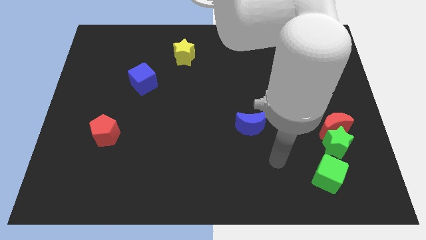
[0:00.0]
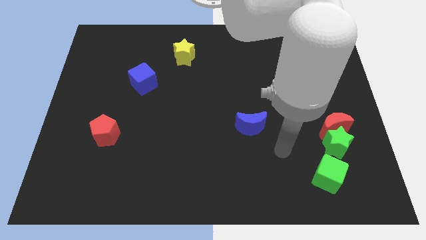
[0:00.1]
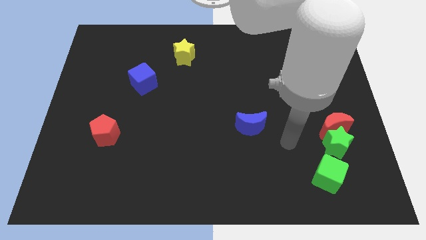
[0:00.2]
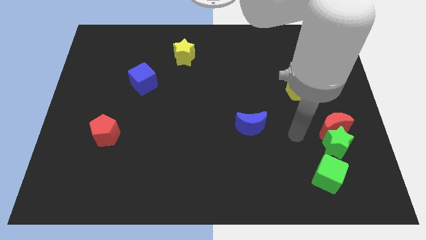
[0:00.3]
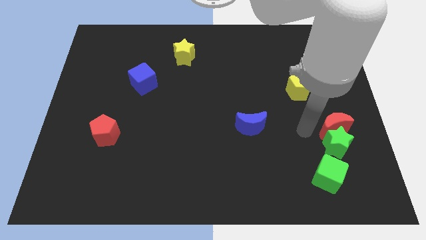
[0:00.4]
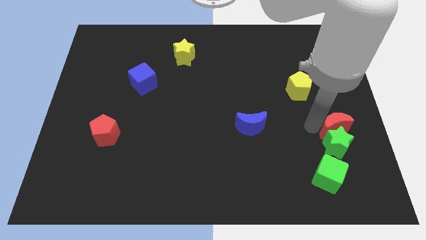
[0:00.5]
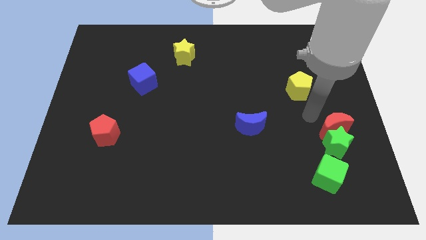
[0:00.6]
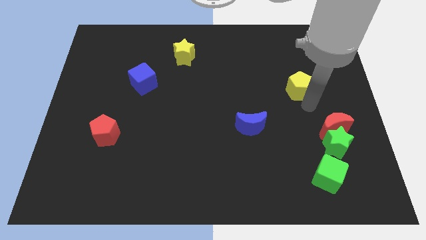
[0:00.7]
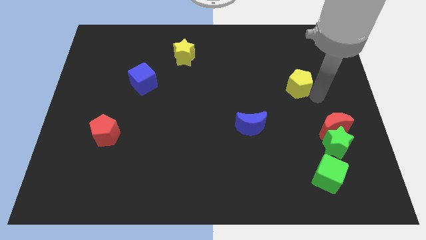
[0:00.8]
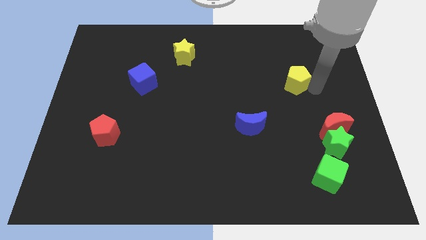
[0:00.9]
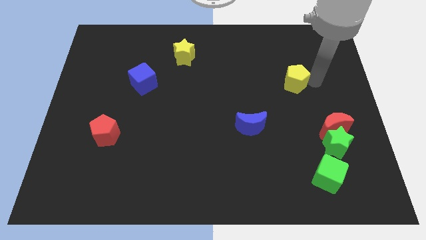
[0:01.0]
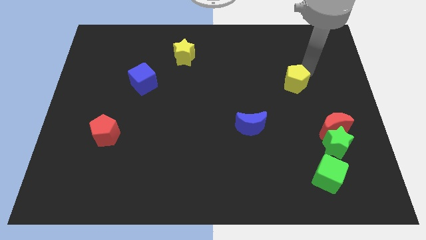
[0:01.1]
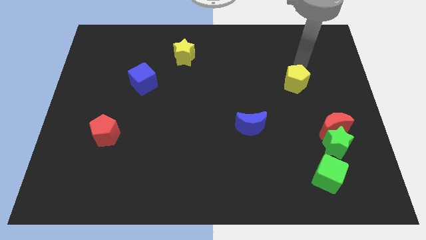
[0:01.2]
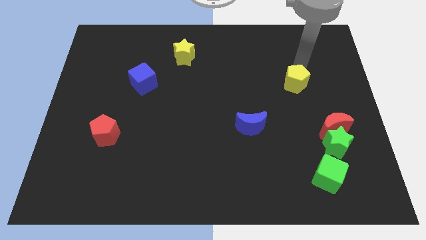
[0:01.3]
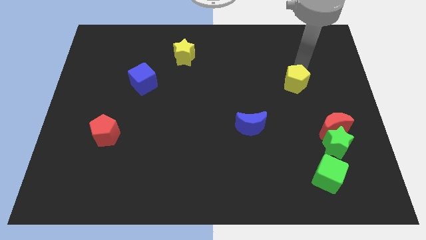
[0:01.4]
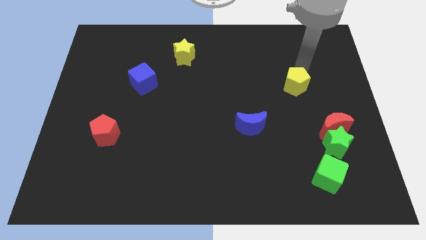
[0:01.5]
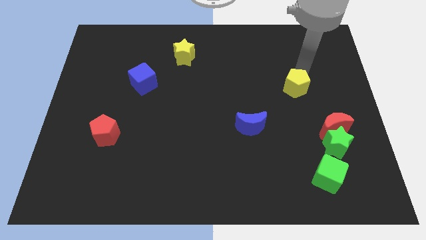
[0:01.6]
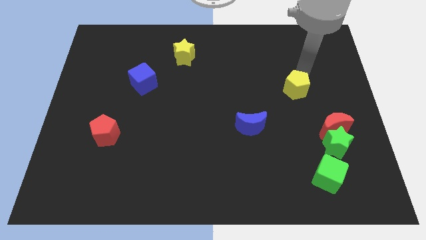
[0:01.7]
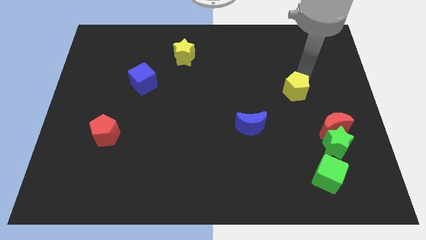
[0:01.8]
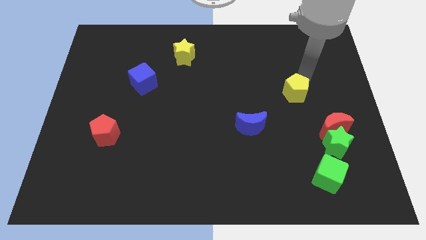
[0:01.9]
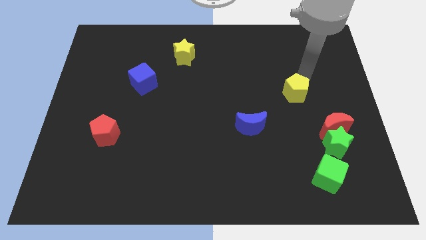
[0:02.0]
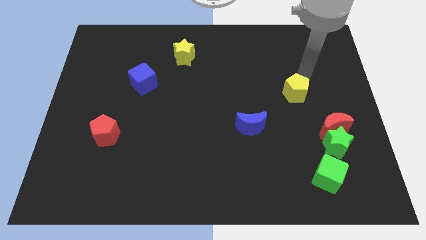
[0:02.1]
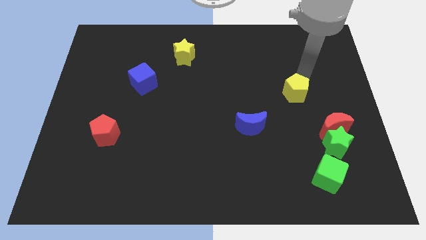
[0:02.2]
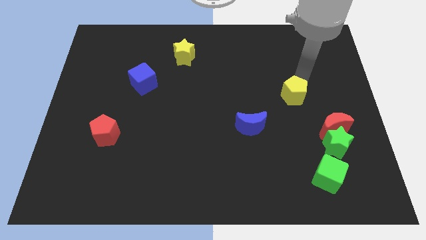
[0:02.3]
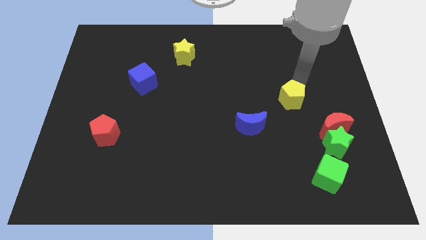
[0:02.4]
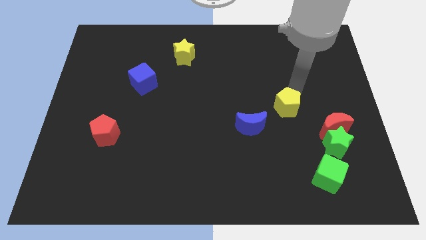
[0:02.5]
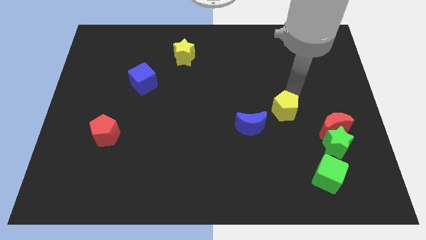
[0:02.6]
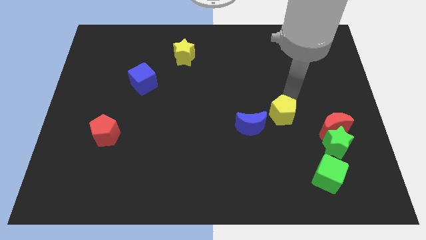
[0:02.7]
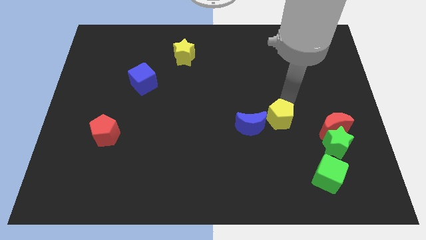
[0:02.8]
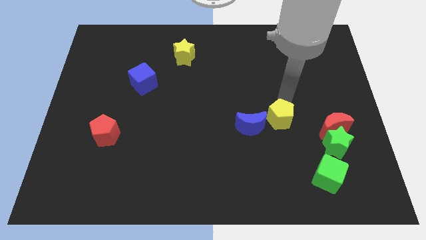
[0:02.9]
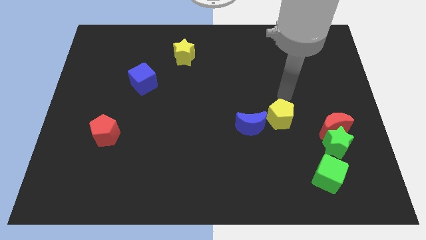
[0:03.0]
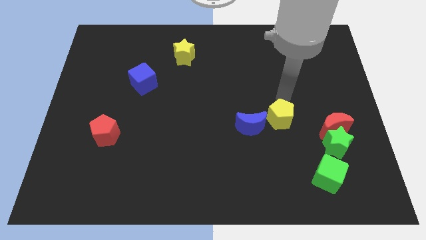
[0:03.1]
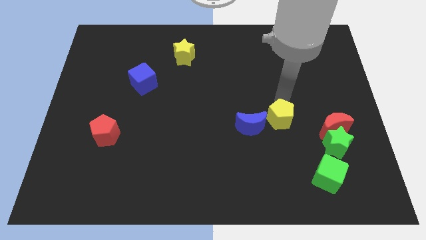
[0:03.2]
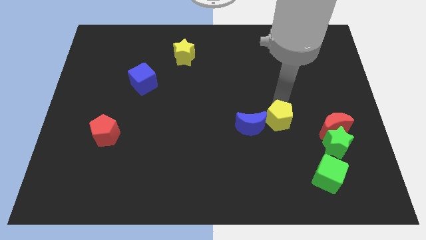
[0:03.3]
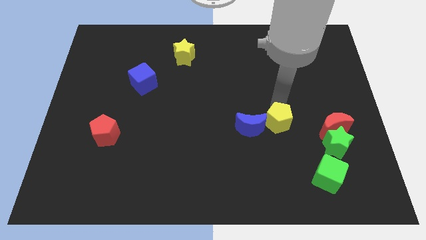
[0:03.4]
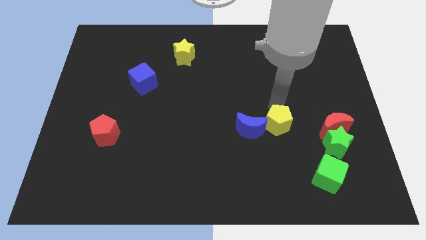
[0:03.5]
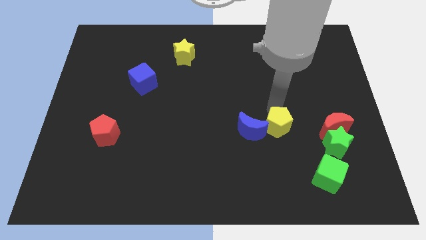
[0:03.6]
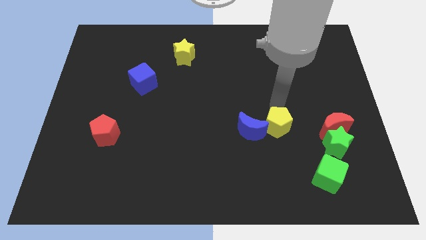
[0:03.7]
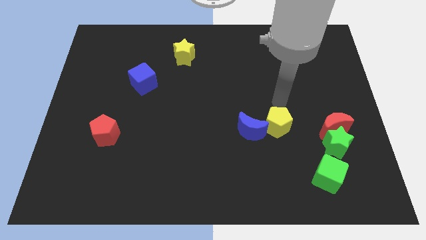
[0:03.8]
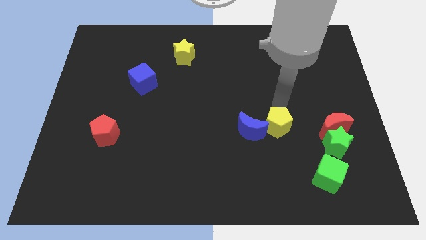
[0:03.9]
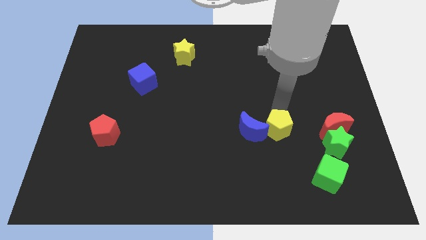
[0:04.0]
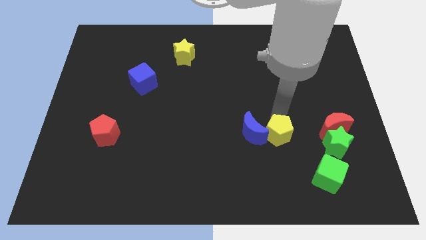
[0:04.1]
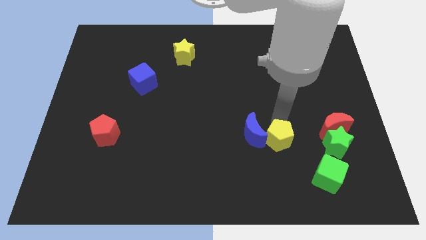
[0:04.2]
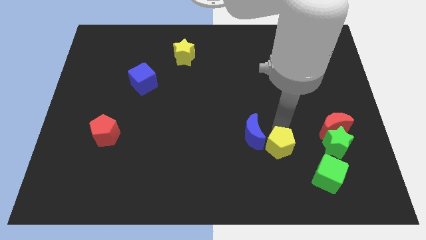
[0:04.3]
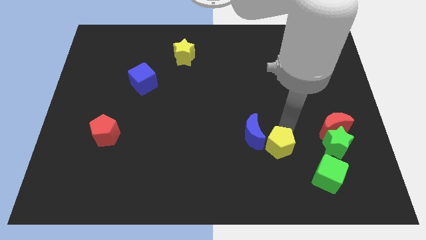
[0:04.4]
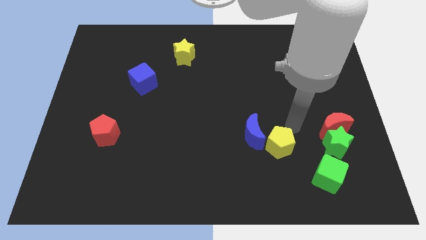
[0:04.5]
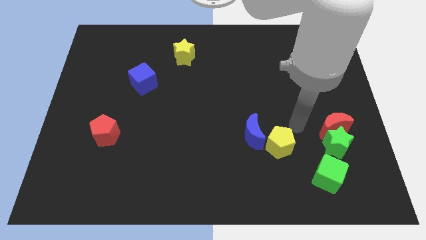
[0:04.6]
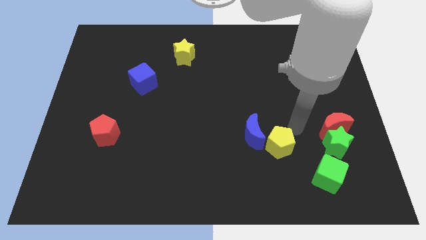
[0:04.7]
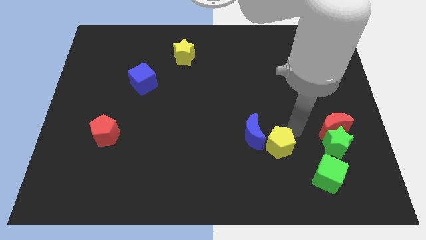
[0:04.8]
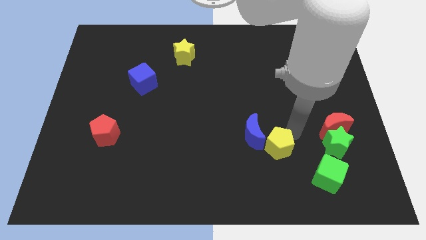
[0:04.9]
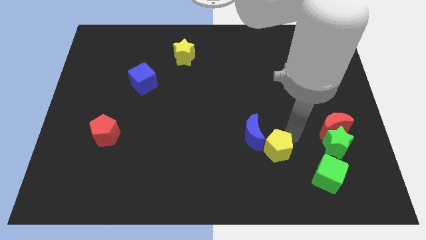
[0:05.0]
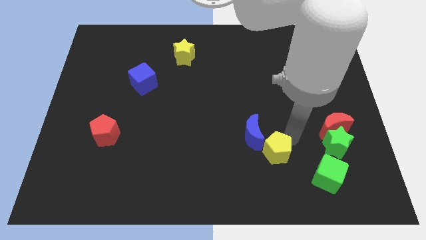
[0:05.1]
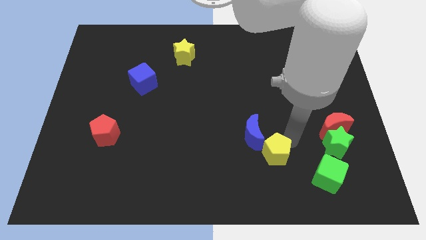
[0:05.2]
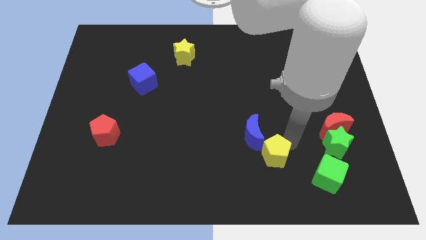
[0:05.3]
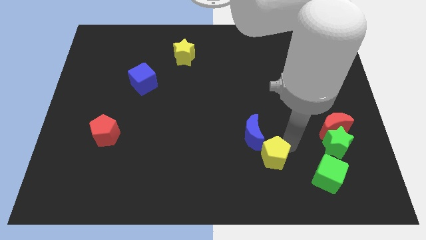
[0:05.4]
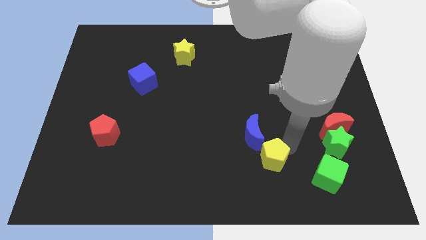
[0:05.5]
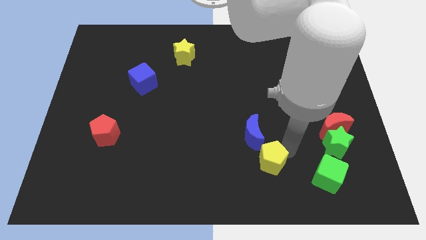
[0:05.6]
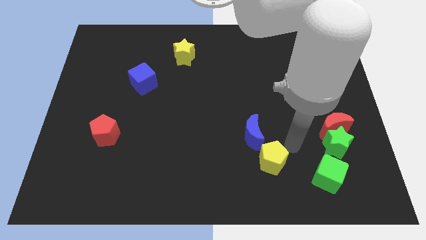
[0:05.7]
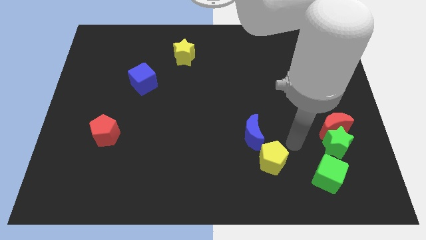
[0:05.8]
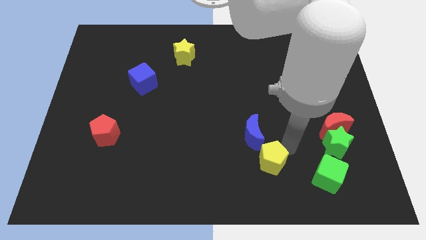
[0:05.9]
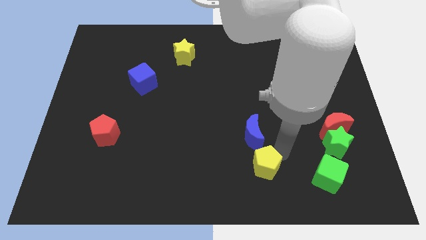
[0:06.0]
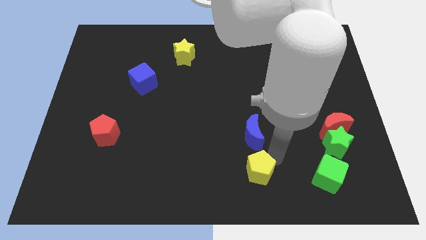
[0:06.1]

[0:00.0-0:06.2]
push the yellow pentagon to the bottom
